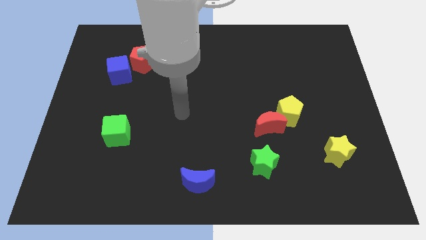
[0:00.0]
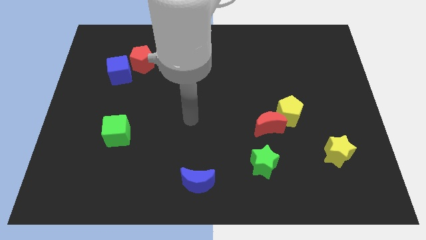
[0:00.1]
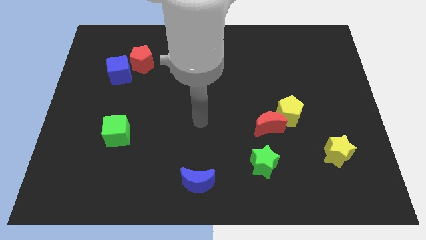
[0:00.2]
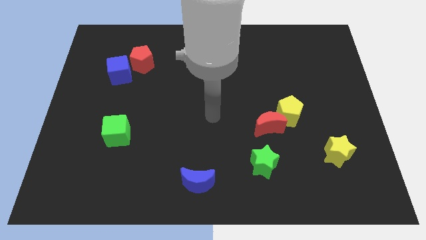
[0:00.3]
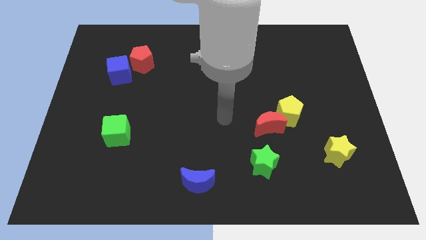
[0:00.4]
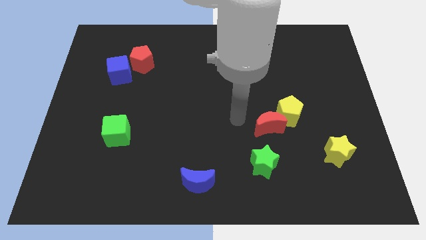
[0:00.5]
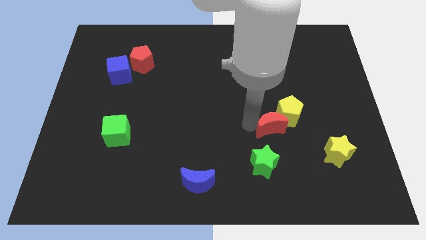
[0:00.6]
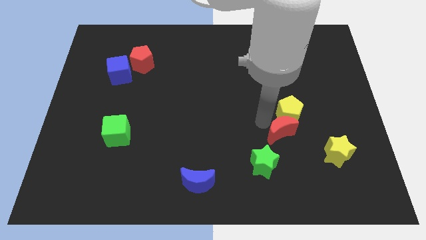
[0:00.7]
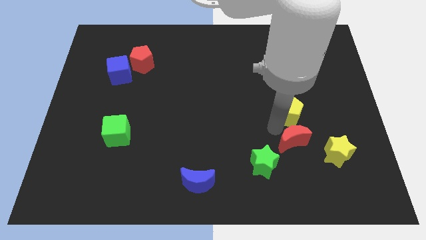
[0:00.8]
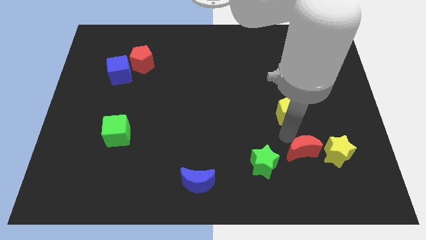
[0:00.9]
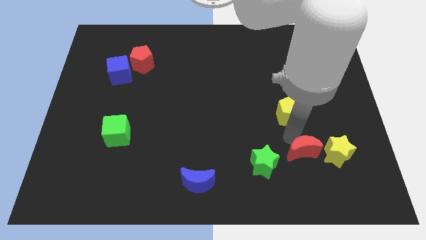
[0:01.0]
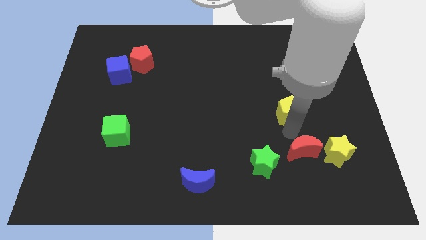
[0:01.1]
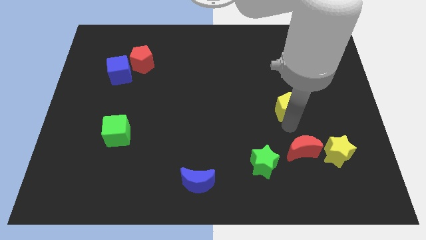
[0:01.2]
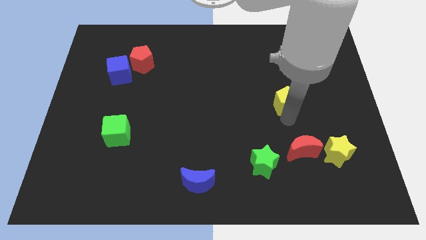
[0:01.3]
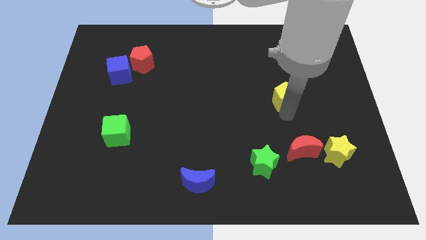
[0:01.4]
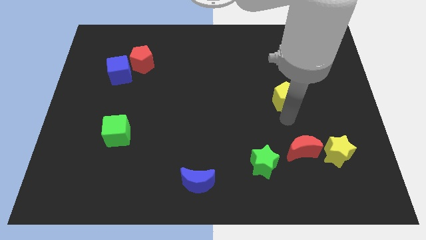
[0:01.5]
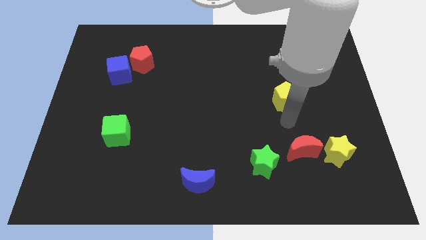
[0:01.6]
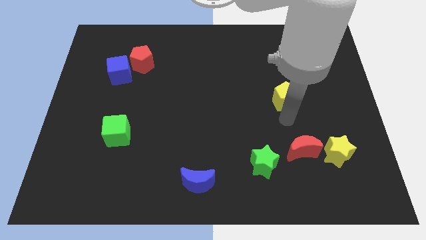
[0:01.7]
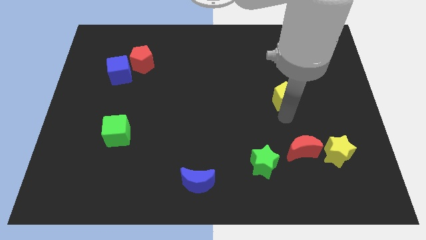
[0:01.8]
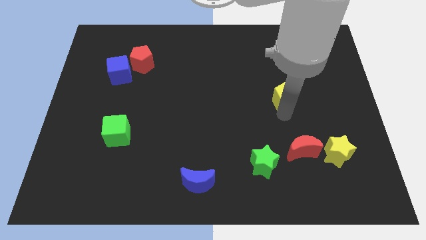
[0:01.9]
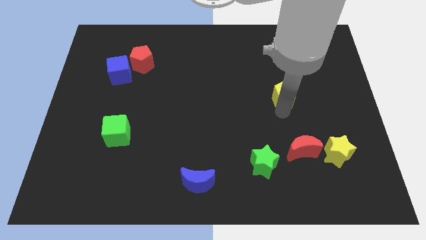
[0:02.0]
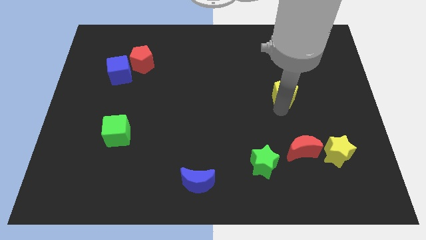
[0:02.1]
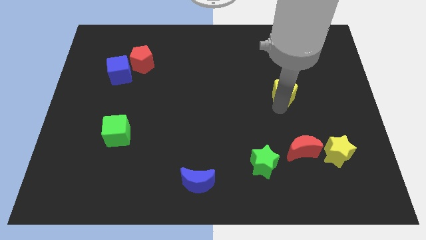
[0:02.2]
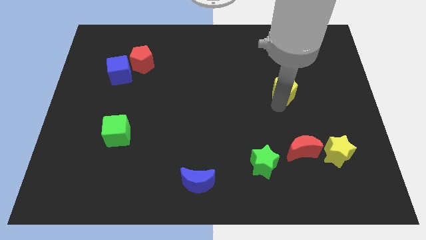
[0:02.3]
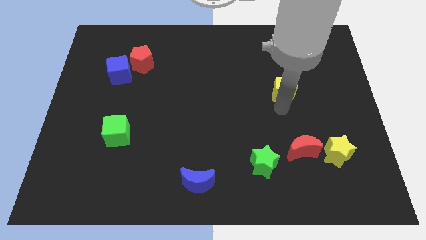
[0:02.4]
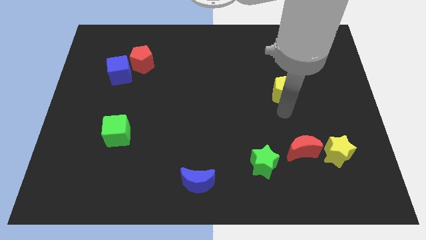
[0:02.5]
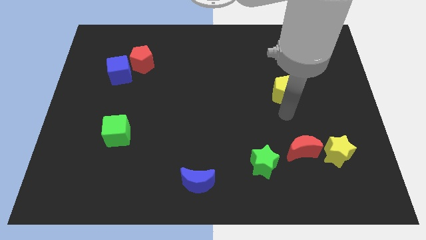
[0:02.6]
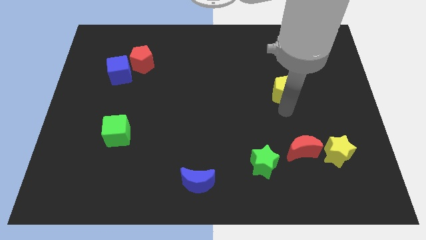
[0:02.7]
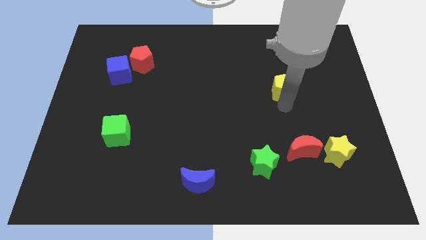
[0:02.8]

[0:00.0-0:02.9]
slide the yellow pentagon slightly upwards

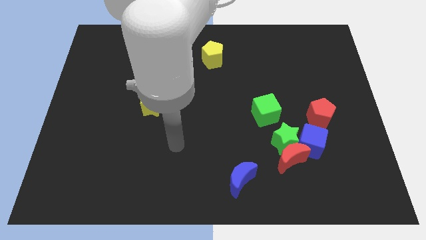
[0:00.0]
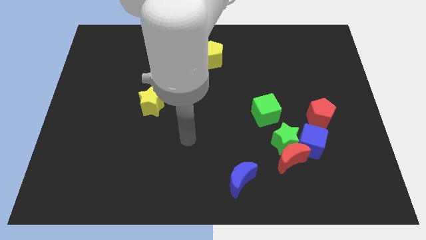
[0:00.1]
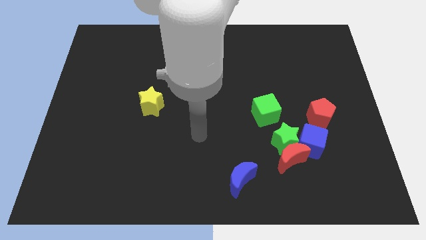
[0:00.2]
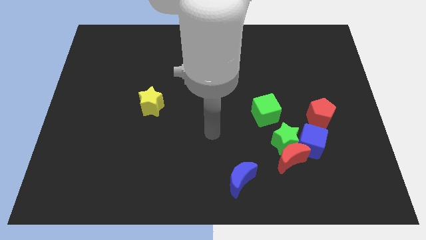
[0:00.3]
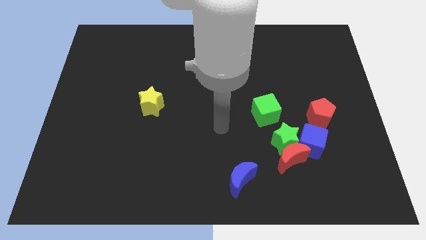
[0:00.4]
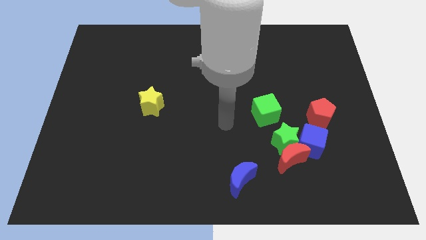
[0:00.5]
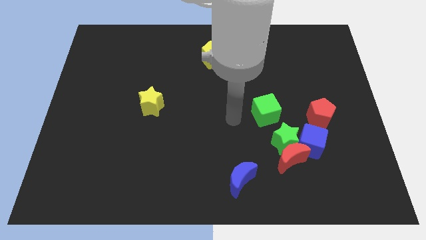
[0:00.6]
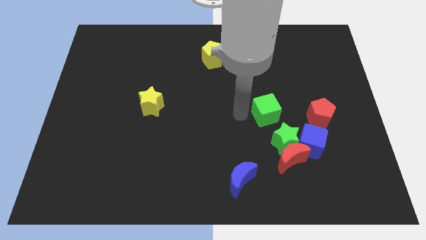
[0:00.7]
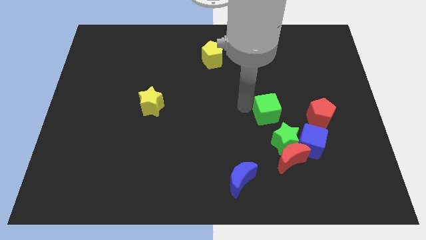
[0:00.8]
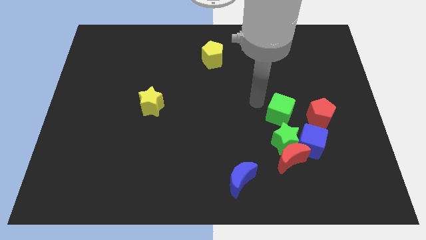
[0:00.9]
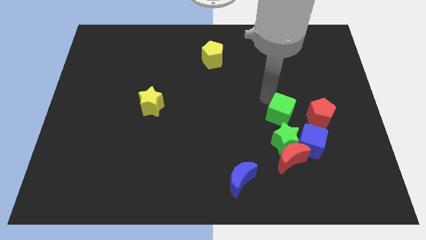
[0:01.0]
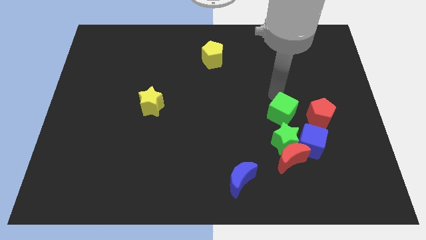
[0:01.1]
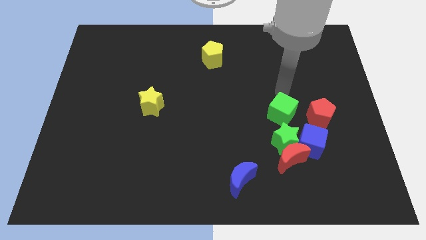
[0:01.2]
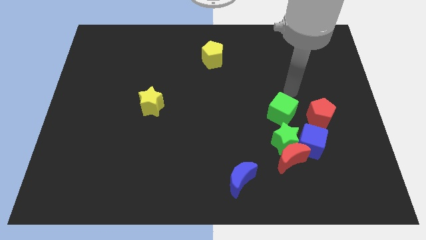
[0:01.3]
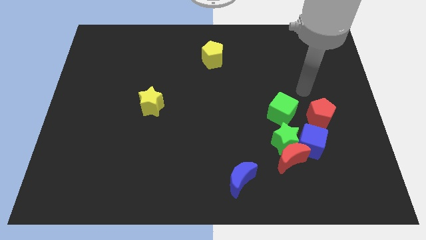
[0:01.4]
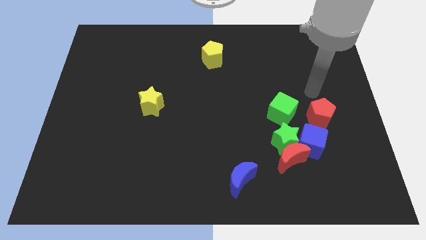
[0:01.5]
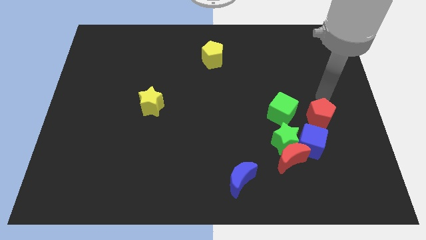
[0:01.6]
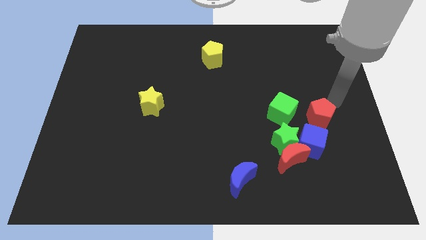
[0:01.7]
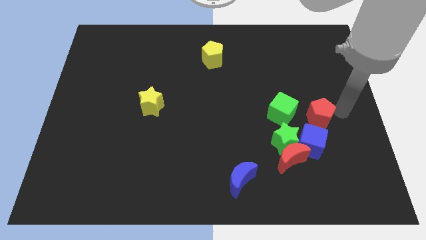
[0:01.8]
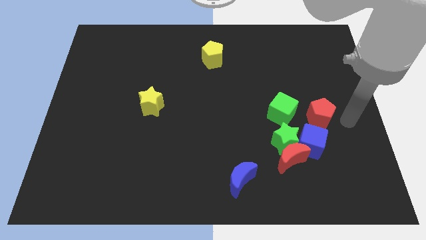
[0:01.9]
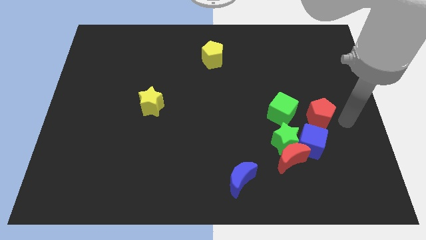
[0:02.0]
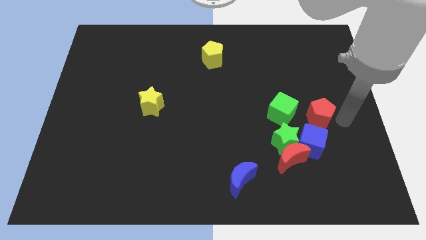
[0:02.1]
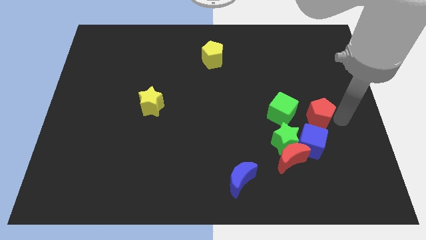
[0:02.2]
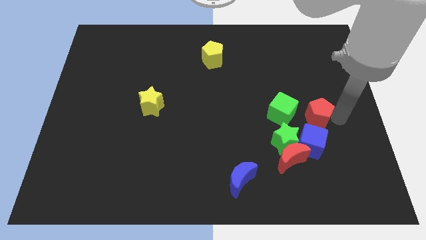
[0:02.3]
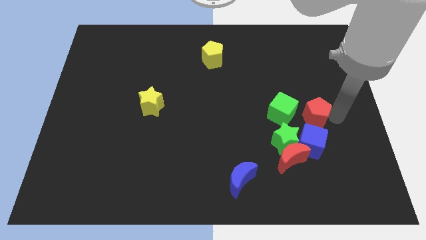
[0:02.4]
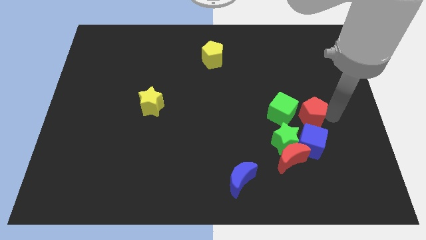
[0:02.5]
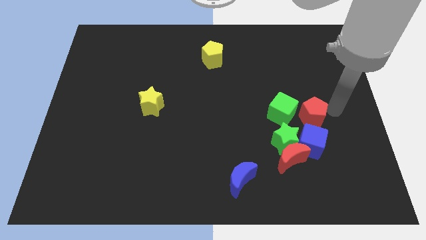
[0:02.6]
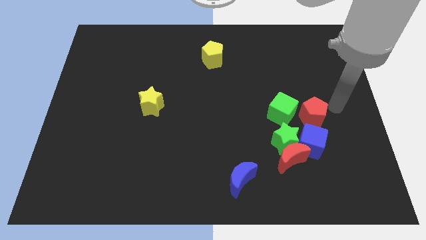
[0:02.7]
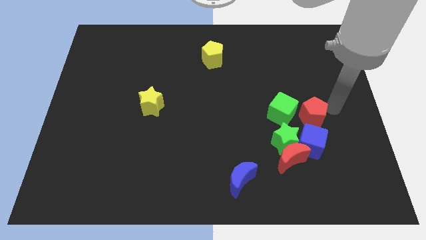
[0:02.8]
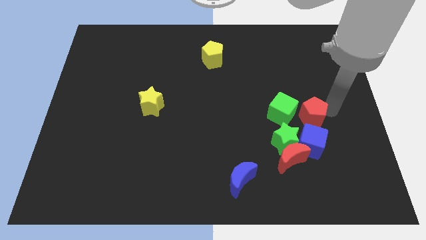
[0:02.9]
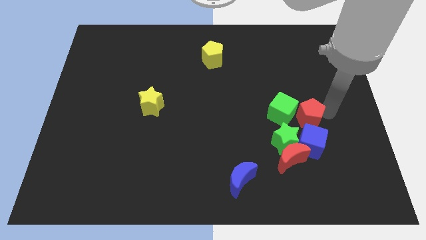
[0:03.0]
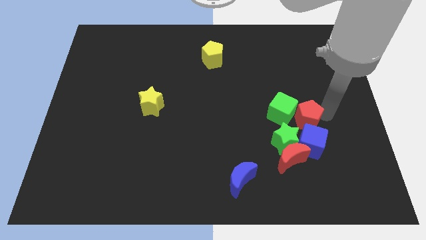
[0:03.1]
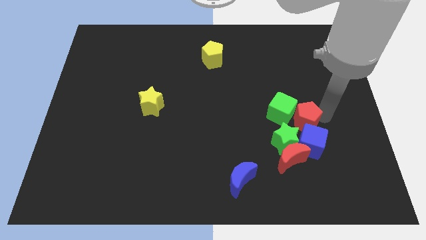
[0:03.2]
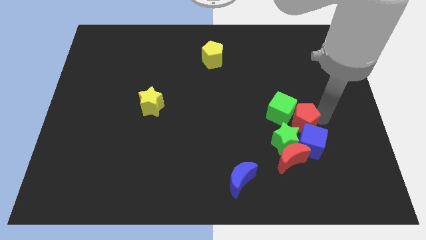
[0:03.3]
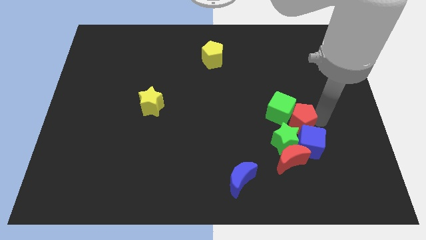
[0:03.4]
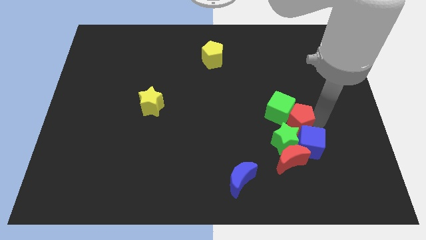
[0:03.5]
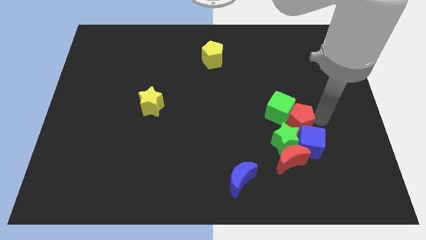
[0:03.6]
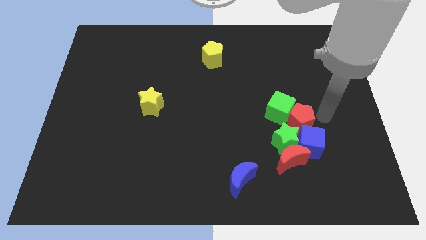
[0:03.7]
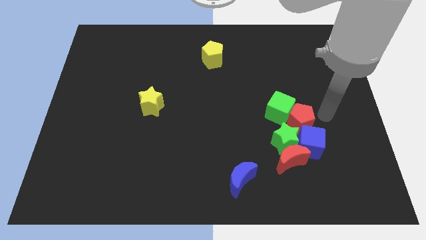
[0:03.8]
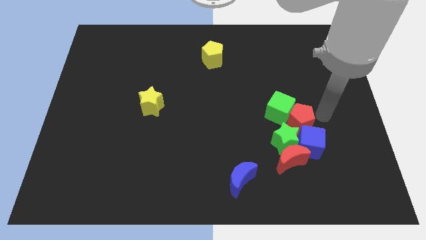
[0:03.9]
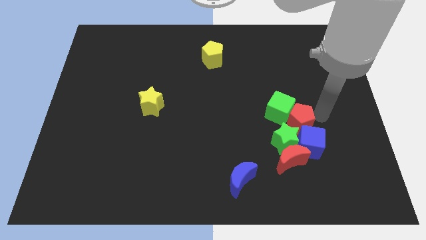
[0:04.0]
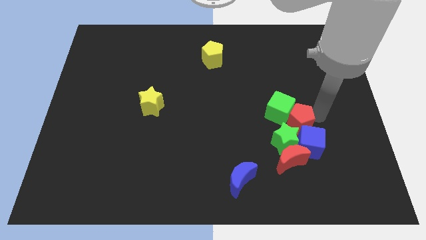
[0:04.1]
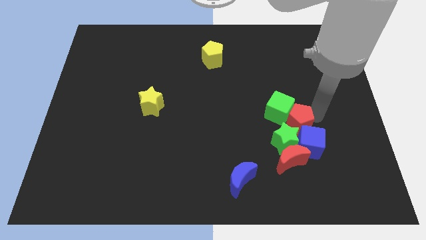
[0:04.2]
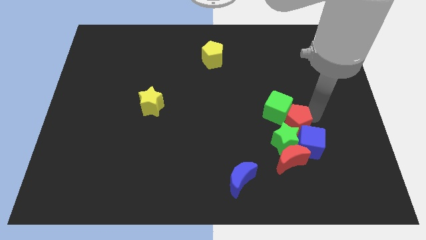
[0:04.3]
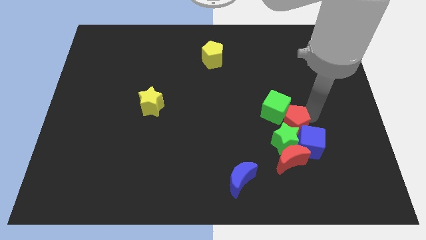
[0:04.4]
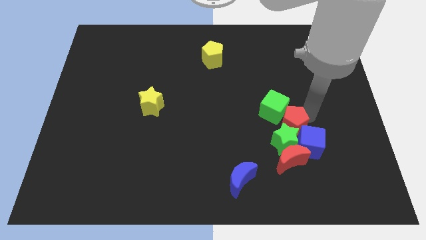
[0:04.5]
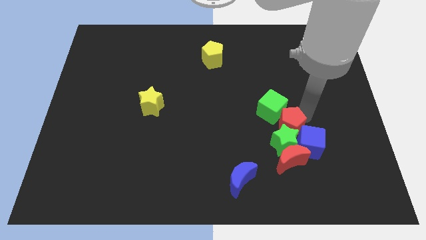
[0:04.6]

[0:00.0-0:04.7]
slightly push the red pentagon to the left
